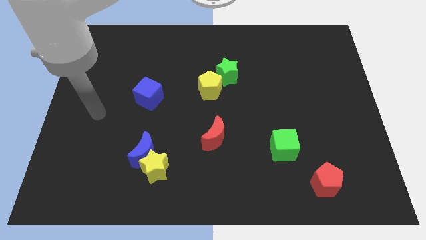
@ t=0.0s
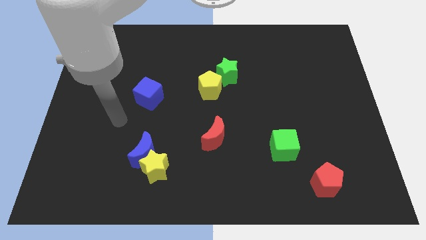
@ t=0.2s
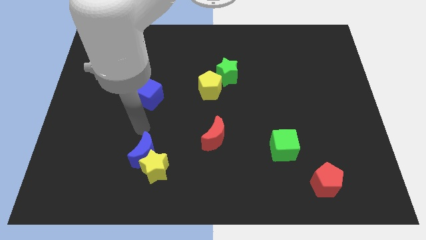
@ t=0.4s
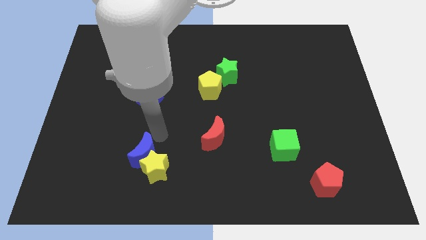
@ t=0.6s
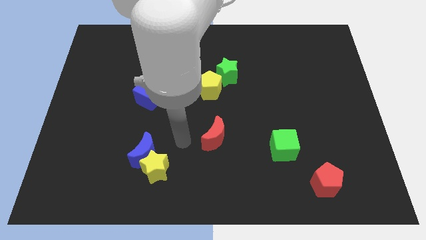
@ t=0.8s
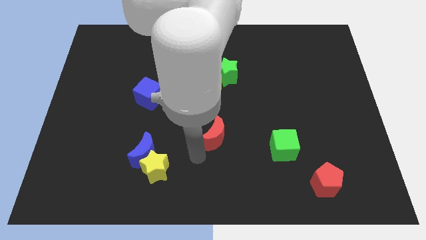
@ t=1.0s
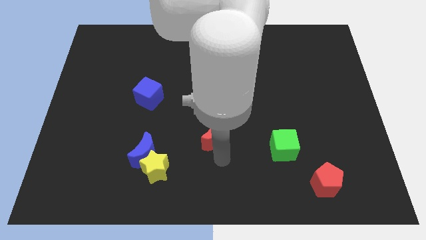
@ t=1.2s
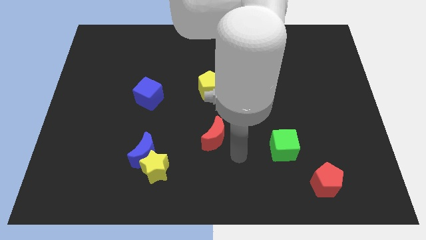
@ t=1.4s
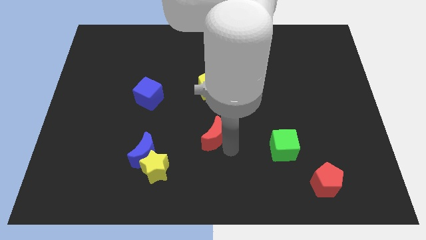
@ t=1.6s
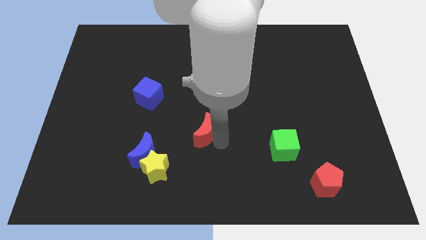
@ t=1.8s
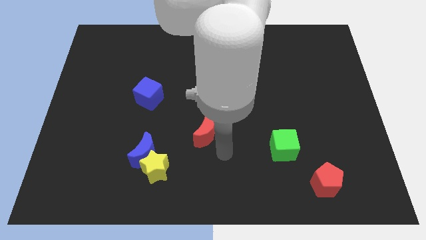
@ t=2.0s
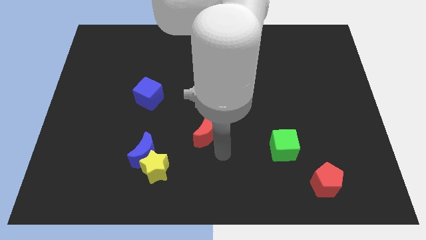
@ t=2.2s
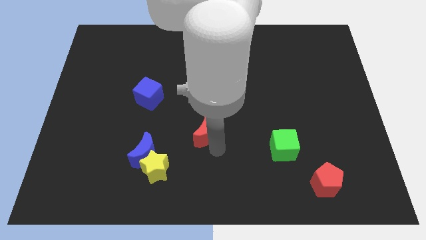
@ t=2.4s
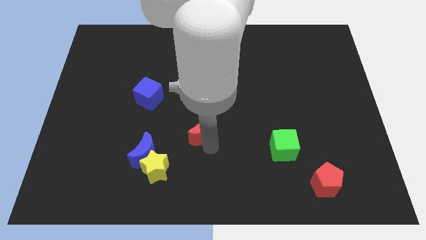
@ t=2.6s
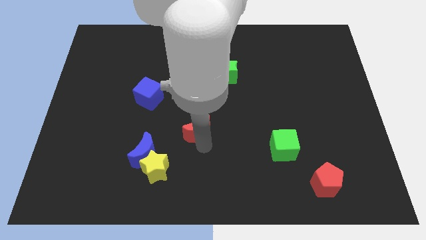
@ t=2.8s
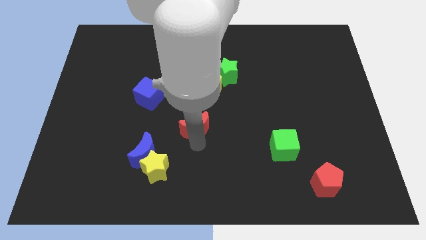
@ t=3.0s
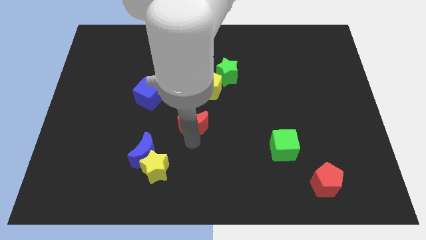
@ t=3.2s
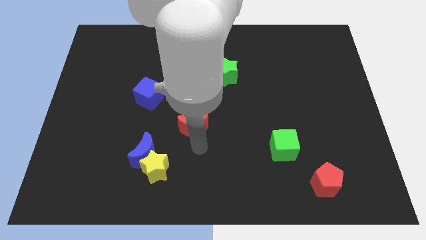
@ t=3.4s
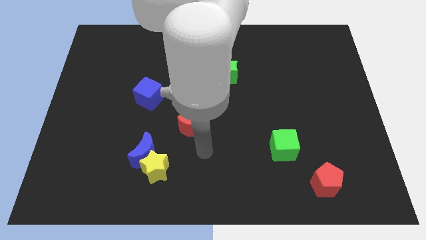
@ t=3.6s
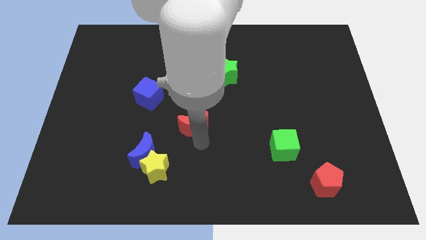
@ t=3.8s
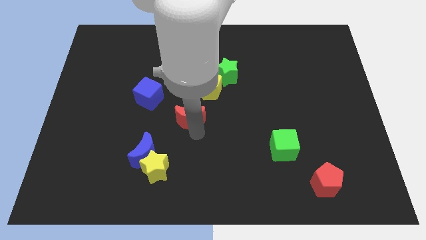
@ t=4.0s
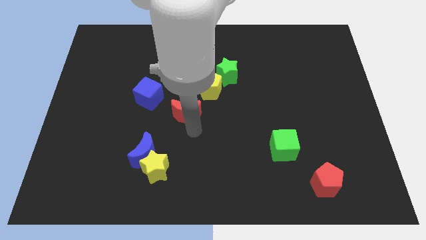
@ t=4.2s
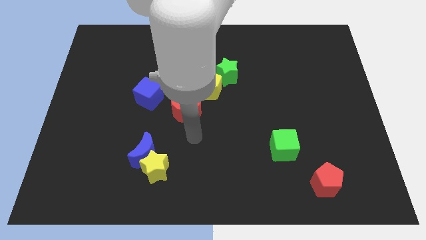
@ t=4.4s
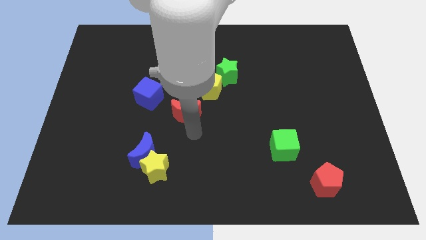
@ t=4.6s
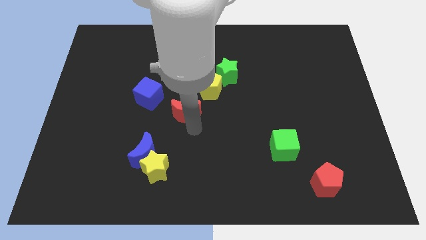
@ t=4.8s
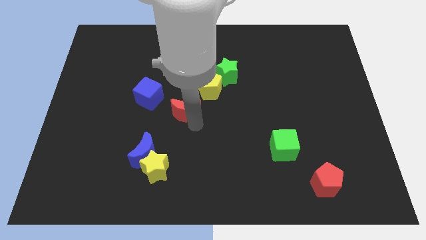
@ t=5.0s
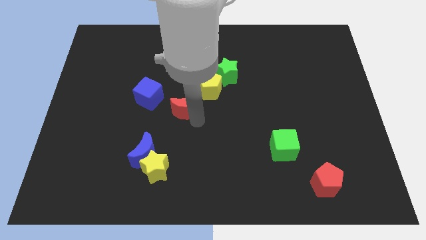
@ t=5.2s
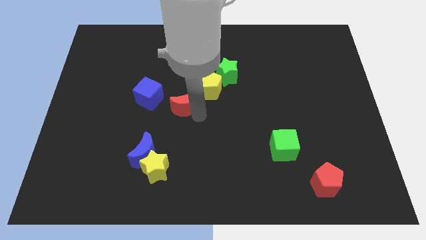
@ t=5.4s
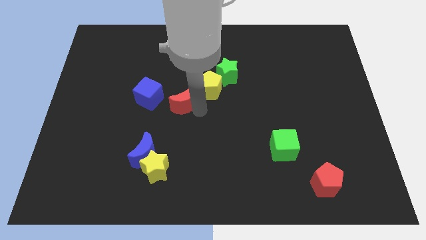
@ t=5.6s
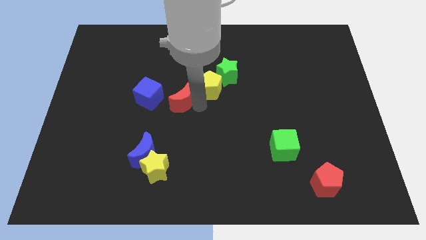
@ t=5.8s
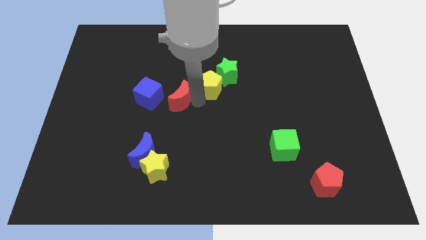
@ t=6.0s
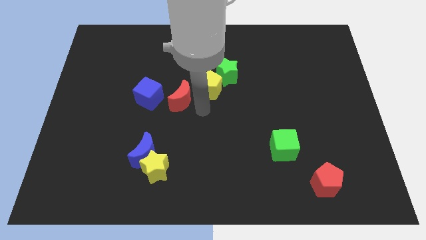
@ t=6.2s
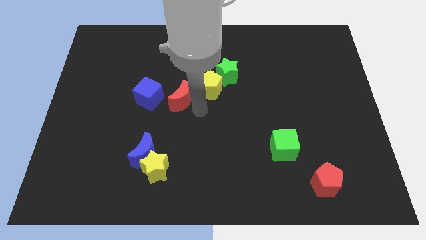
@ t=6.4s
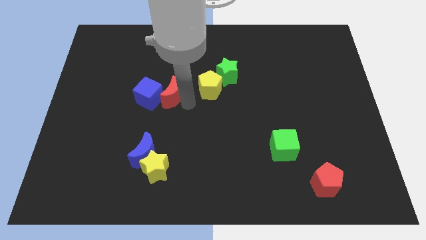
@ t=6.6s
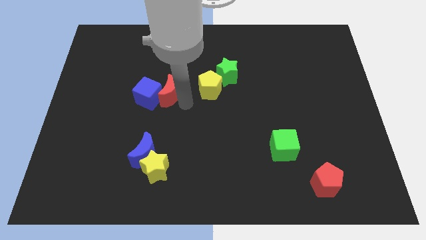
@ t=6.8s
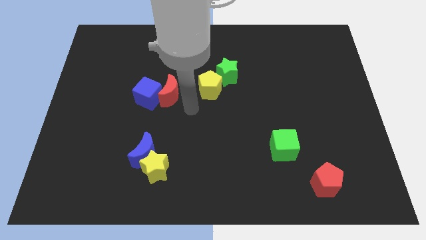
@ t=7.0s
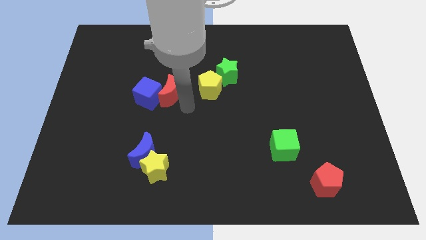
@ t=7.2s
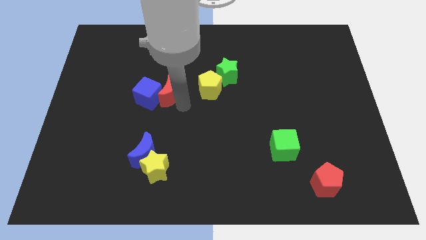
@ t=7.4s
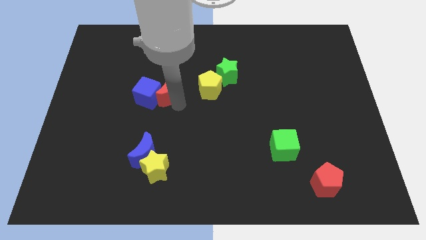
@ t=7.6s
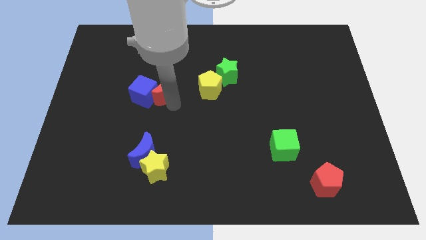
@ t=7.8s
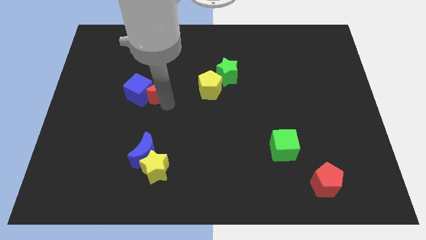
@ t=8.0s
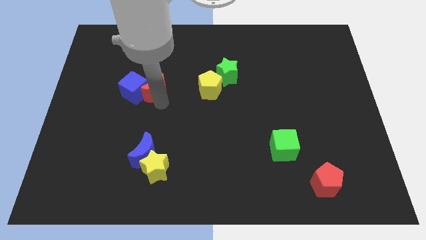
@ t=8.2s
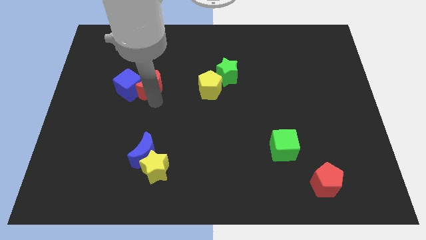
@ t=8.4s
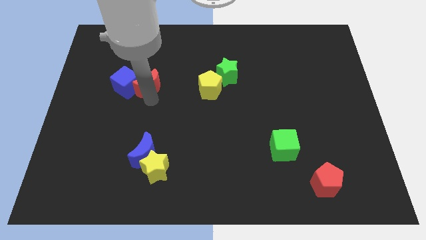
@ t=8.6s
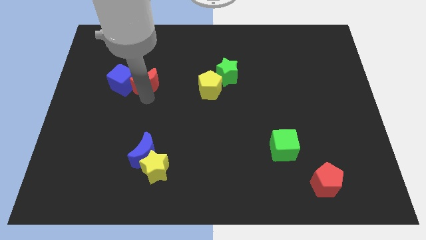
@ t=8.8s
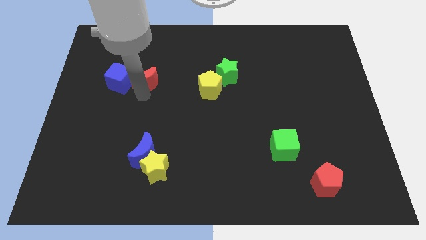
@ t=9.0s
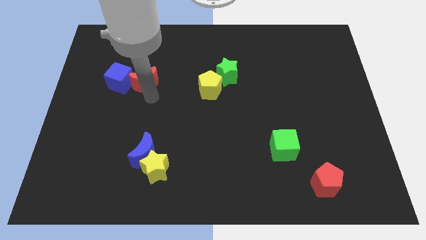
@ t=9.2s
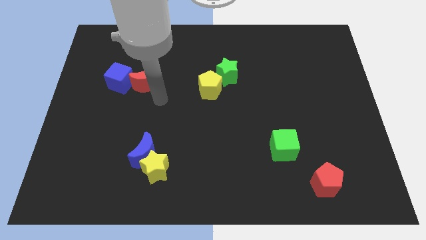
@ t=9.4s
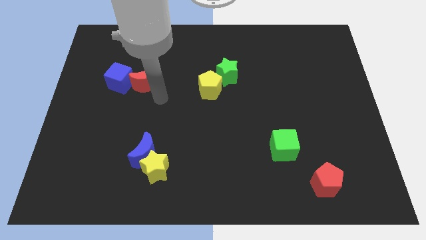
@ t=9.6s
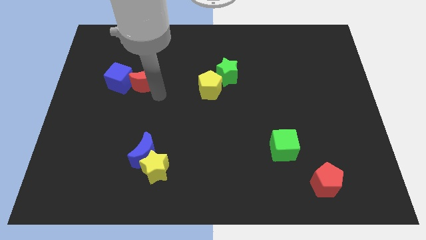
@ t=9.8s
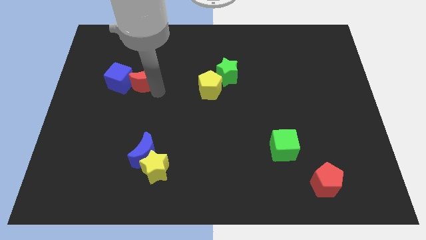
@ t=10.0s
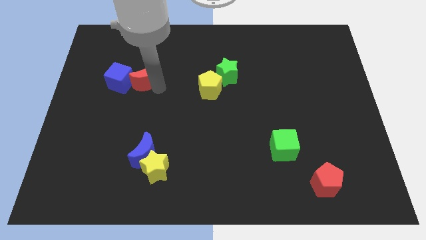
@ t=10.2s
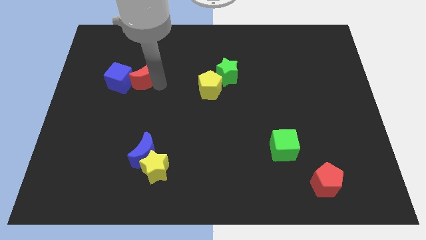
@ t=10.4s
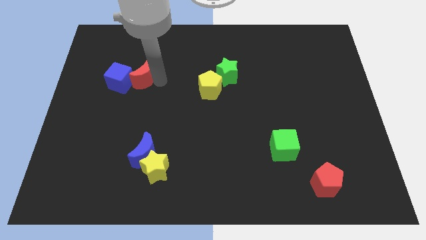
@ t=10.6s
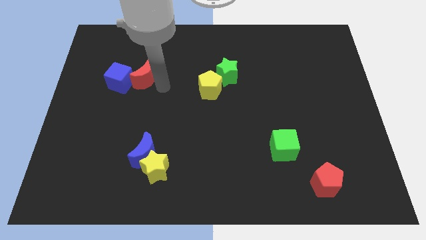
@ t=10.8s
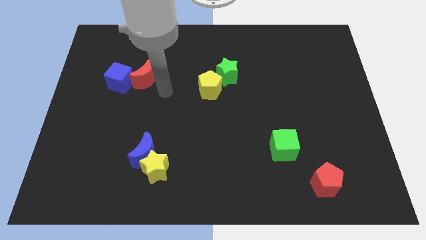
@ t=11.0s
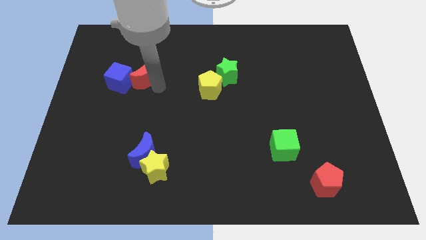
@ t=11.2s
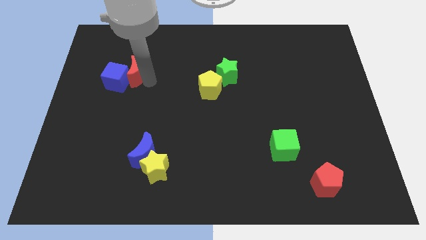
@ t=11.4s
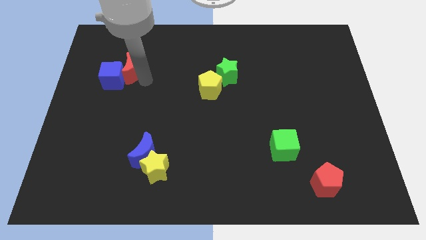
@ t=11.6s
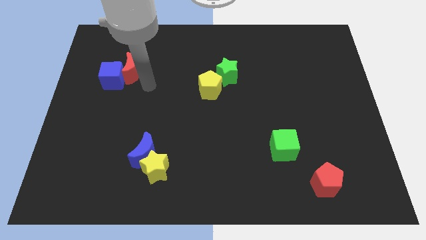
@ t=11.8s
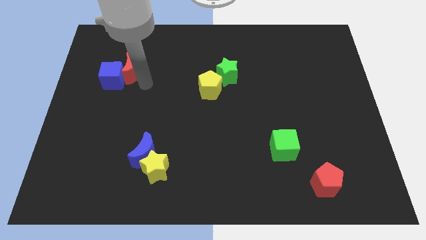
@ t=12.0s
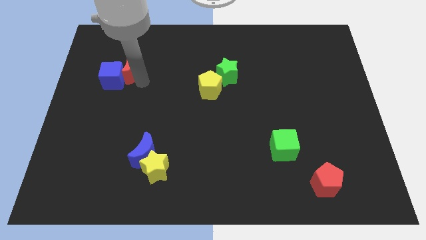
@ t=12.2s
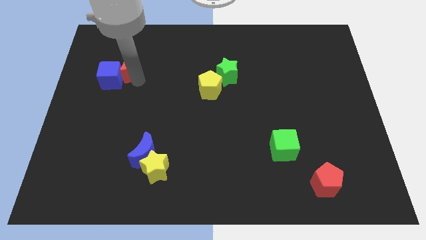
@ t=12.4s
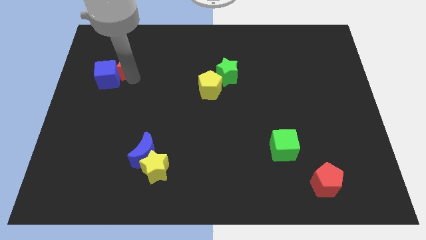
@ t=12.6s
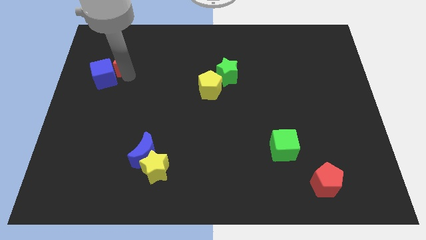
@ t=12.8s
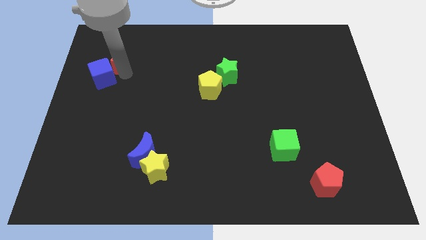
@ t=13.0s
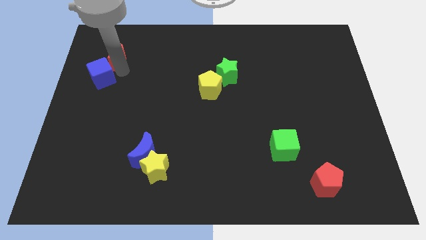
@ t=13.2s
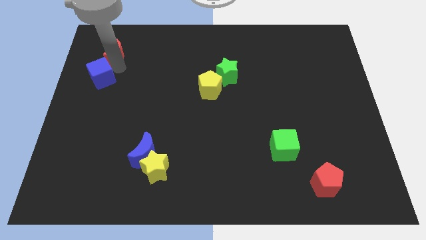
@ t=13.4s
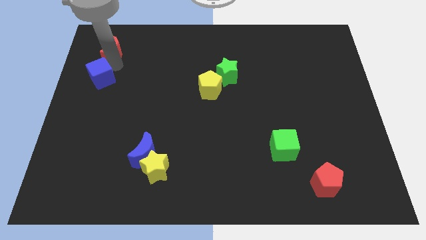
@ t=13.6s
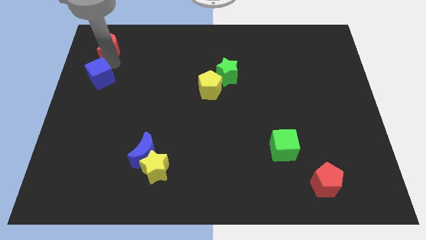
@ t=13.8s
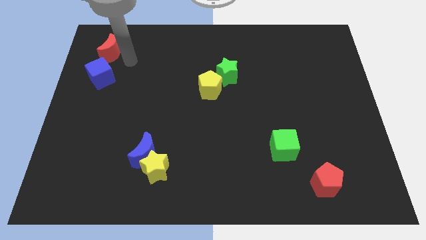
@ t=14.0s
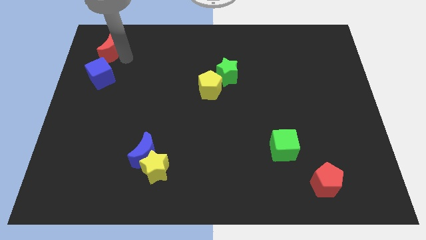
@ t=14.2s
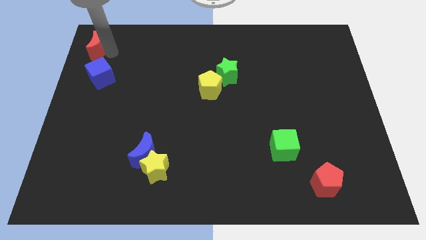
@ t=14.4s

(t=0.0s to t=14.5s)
push the red moon to the upper left corner

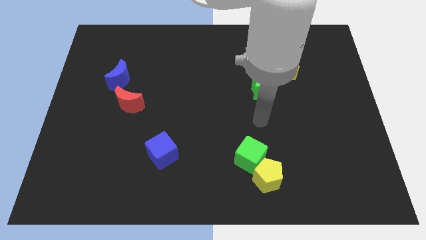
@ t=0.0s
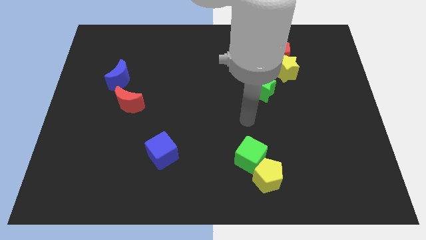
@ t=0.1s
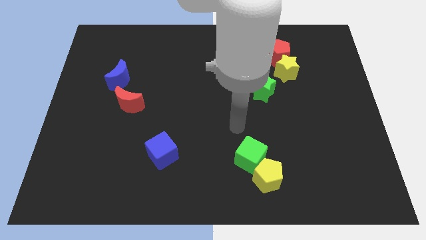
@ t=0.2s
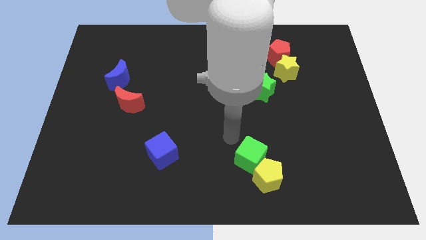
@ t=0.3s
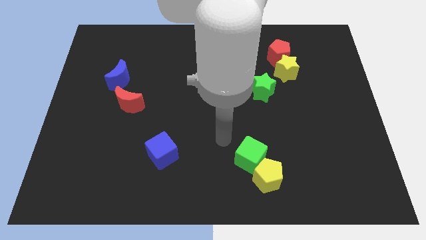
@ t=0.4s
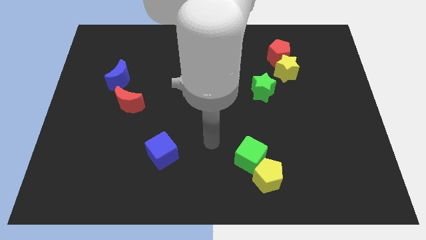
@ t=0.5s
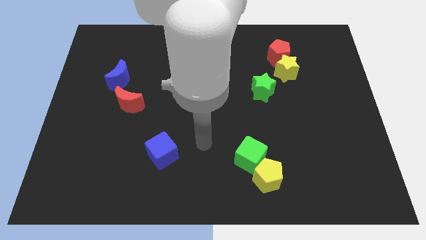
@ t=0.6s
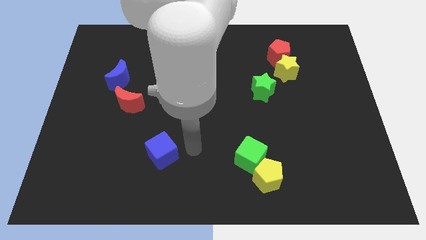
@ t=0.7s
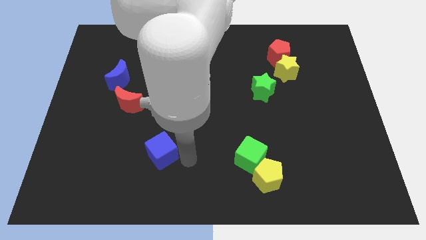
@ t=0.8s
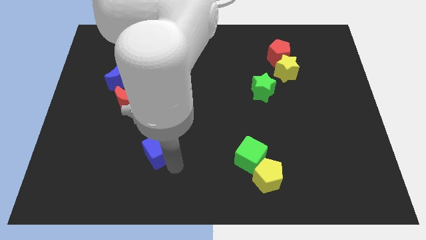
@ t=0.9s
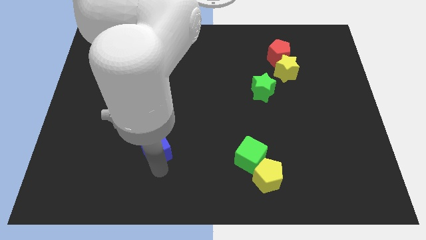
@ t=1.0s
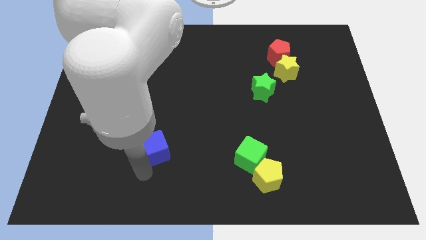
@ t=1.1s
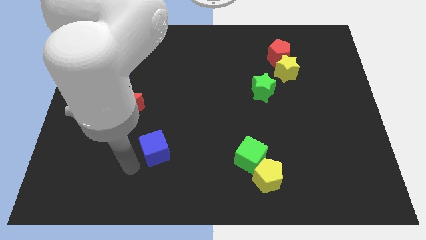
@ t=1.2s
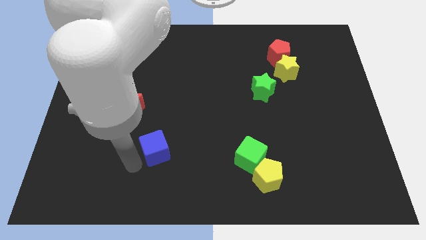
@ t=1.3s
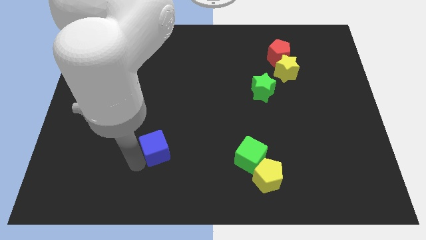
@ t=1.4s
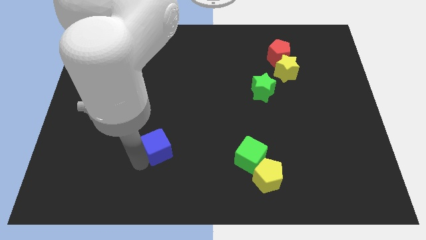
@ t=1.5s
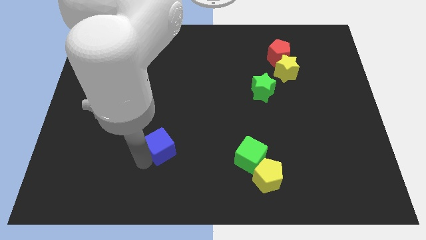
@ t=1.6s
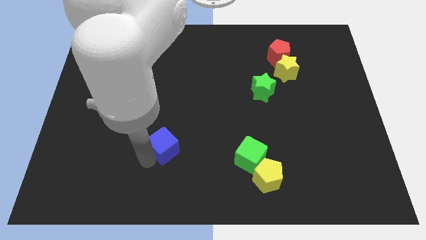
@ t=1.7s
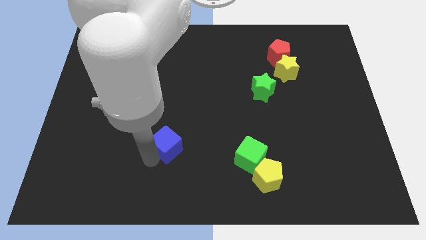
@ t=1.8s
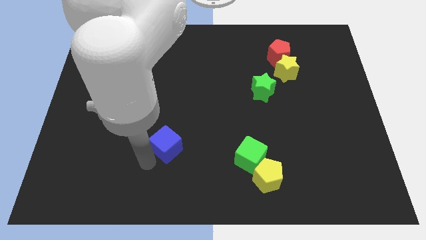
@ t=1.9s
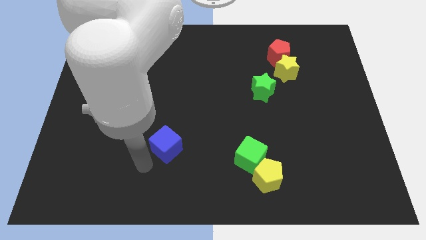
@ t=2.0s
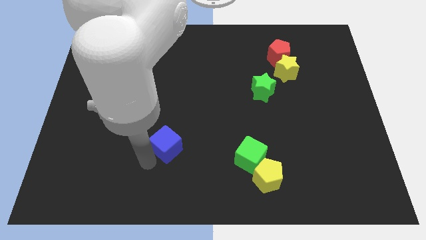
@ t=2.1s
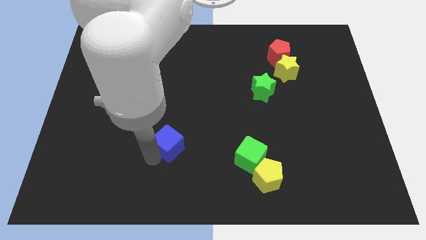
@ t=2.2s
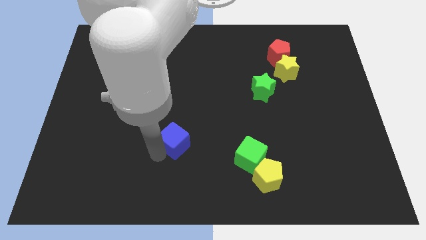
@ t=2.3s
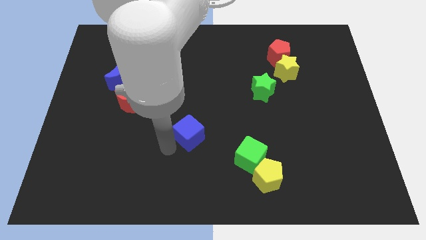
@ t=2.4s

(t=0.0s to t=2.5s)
move the blue cube to the center of the board
